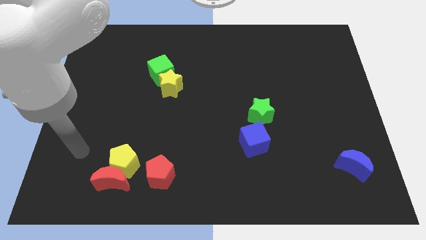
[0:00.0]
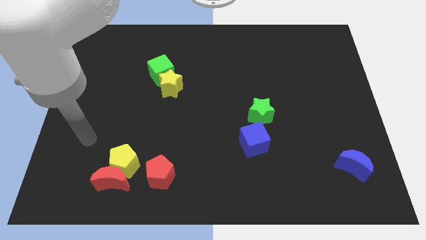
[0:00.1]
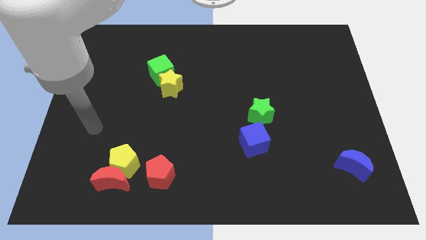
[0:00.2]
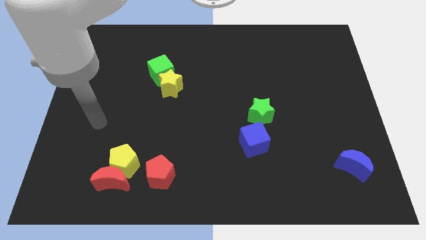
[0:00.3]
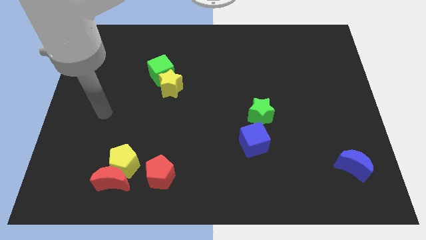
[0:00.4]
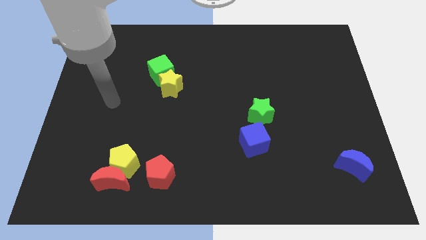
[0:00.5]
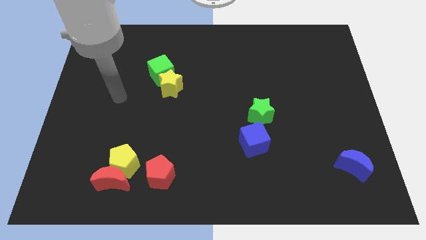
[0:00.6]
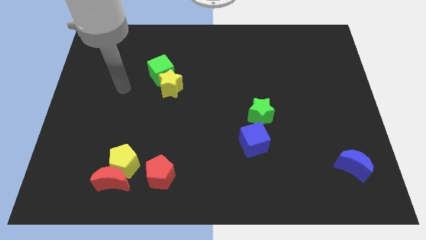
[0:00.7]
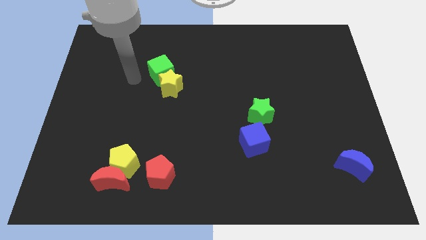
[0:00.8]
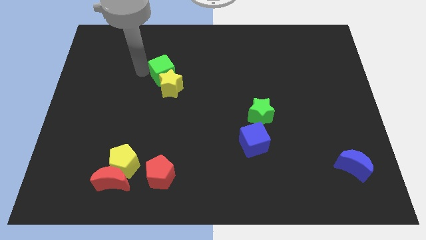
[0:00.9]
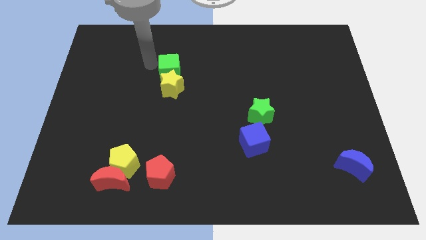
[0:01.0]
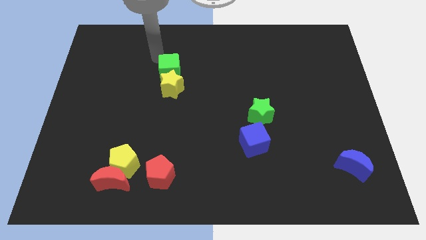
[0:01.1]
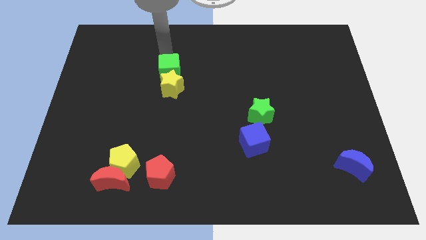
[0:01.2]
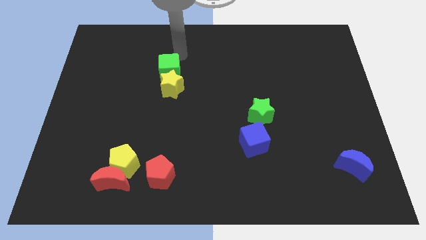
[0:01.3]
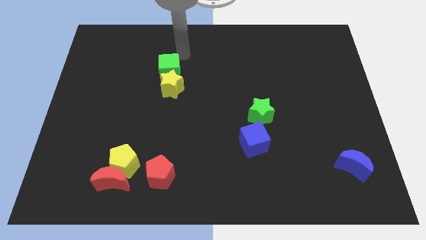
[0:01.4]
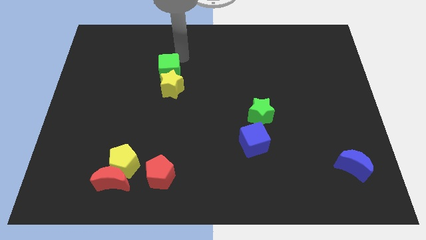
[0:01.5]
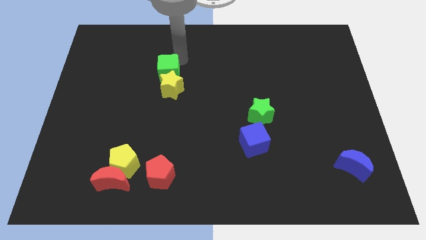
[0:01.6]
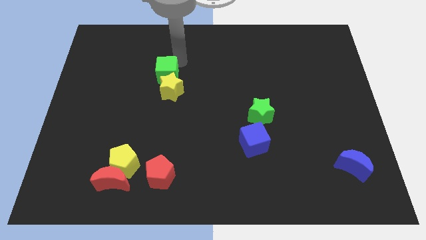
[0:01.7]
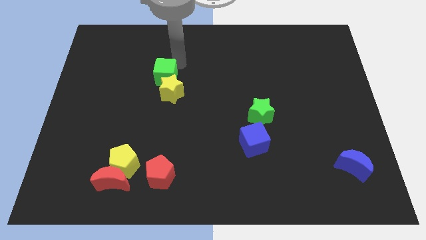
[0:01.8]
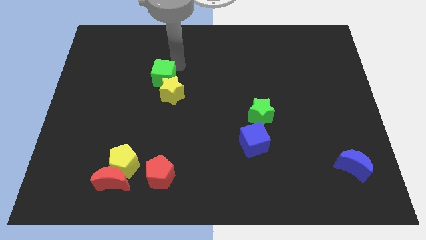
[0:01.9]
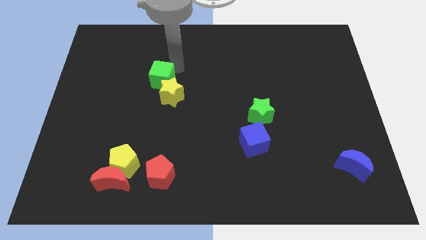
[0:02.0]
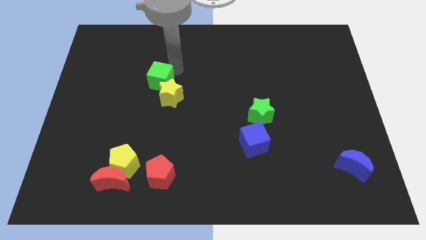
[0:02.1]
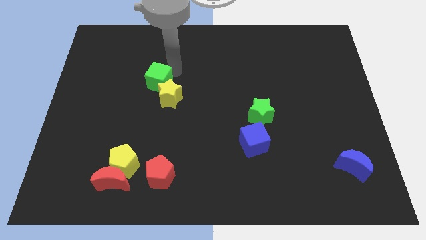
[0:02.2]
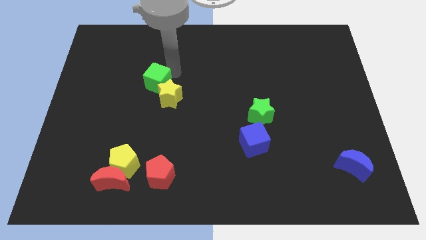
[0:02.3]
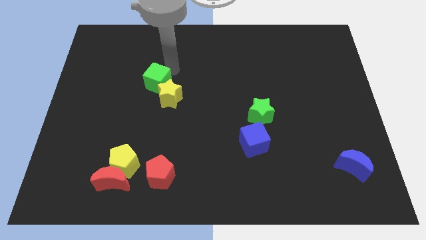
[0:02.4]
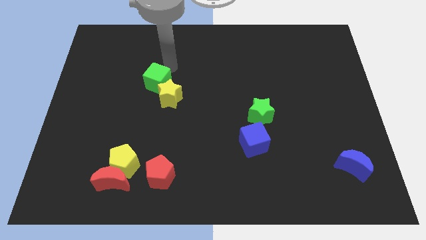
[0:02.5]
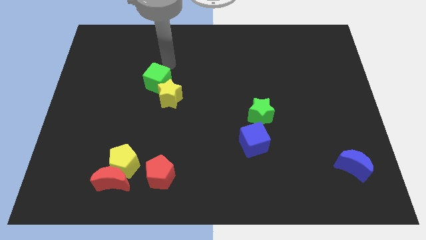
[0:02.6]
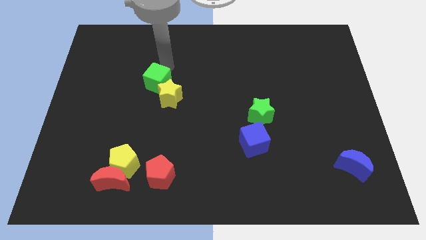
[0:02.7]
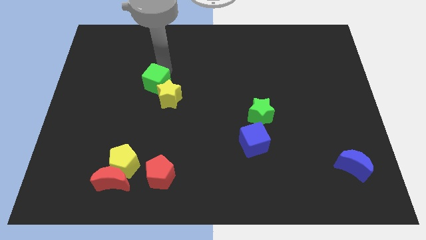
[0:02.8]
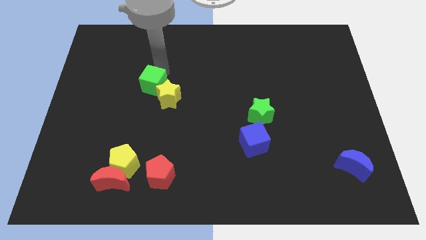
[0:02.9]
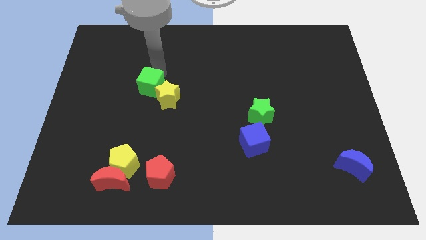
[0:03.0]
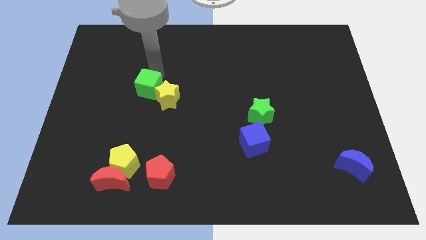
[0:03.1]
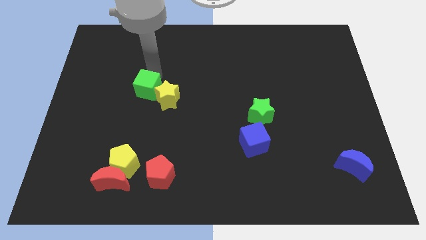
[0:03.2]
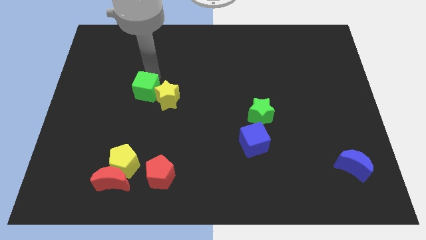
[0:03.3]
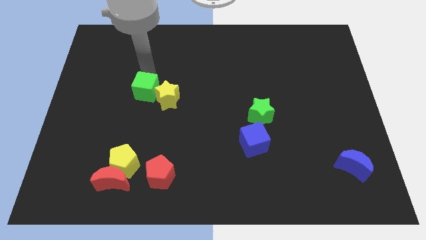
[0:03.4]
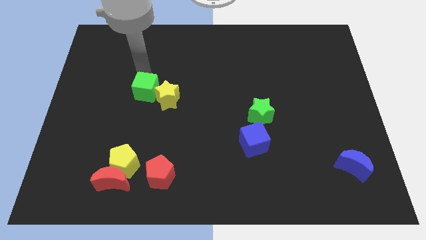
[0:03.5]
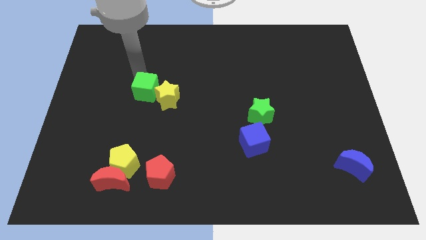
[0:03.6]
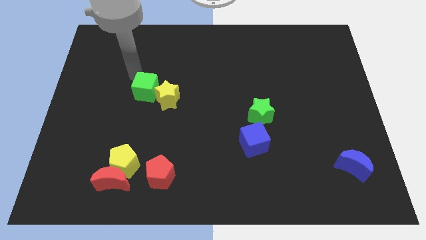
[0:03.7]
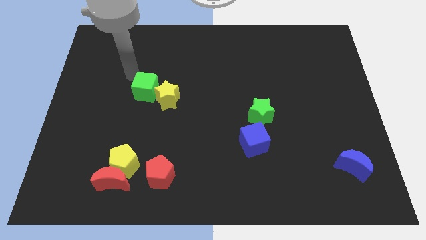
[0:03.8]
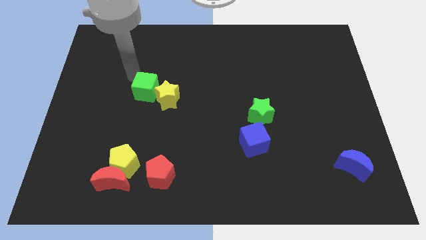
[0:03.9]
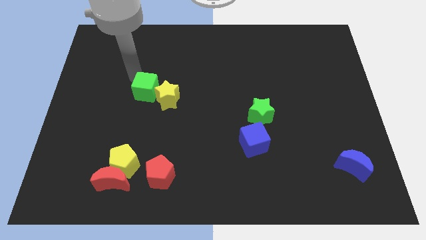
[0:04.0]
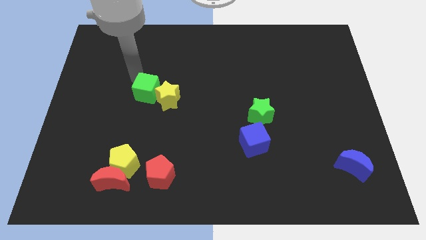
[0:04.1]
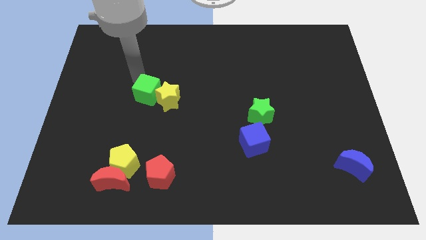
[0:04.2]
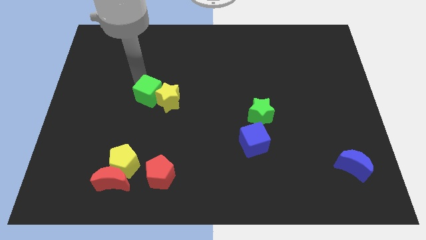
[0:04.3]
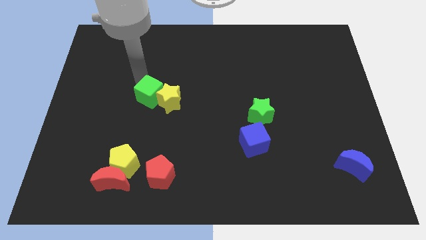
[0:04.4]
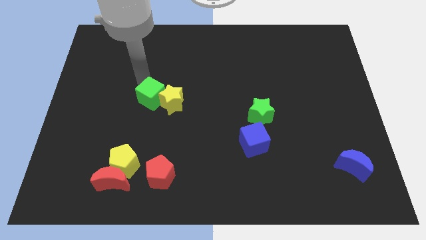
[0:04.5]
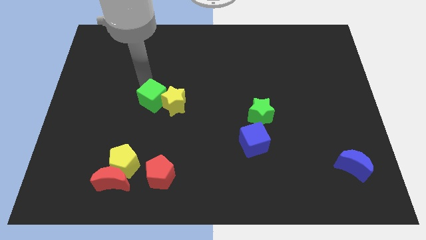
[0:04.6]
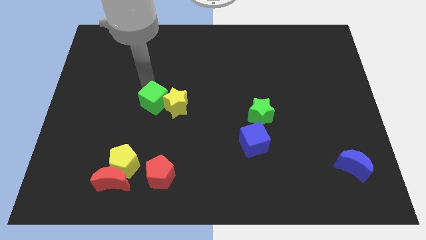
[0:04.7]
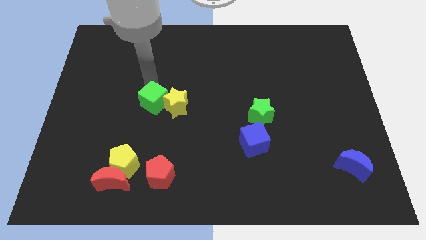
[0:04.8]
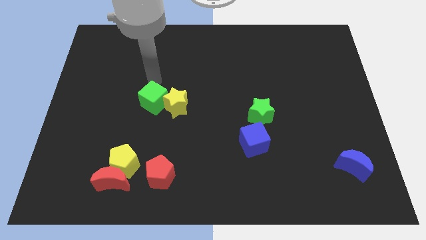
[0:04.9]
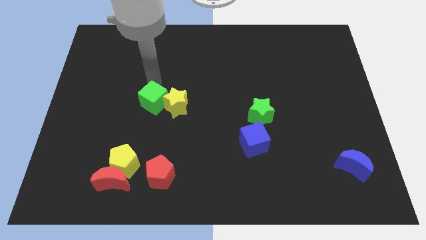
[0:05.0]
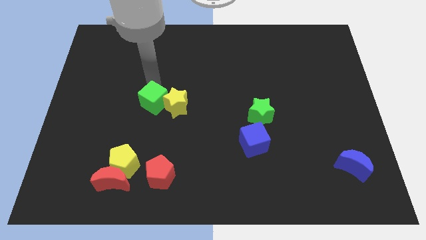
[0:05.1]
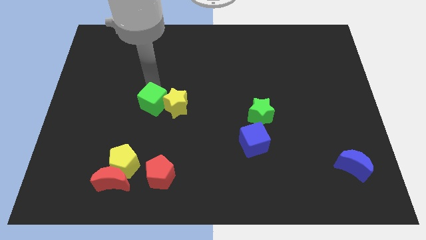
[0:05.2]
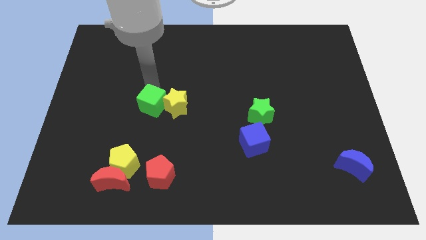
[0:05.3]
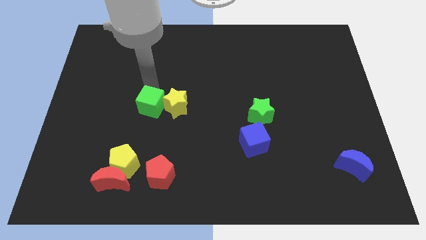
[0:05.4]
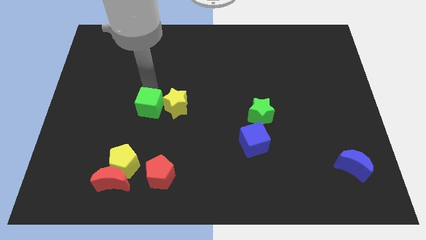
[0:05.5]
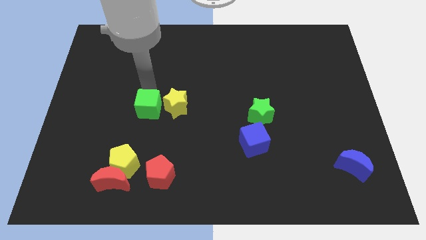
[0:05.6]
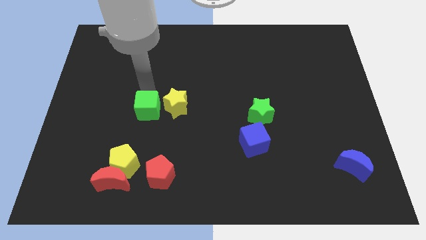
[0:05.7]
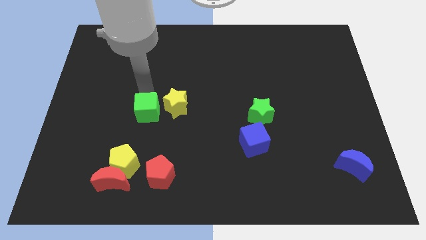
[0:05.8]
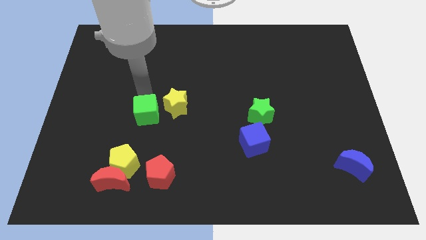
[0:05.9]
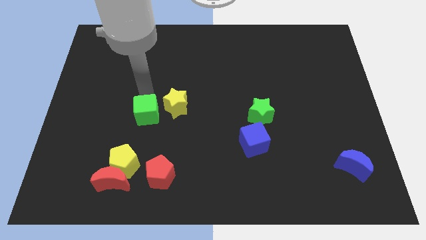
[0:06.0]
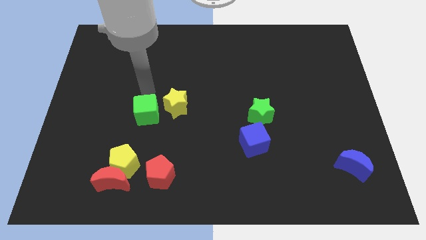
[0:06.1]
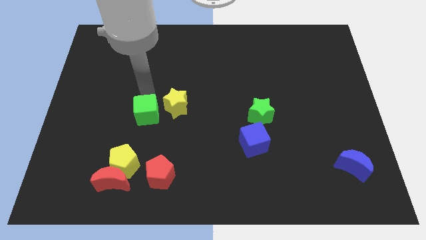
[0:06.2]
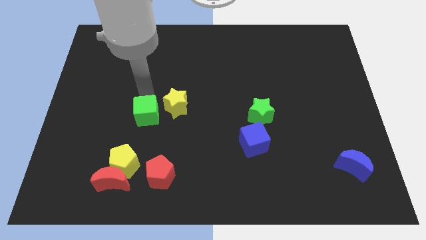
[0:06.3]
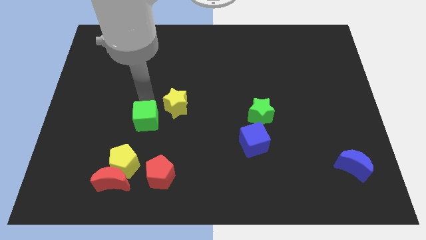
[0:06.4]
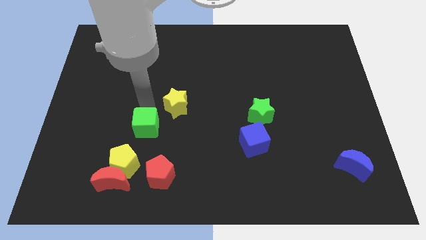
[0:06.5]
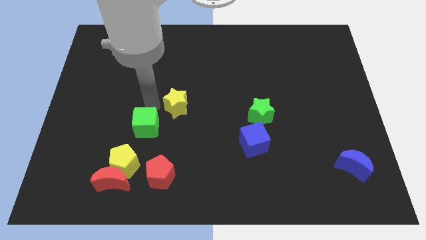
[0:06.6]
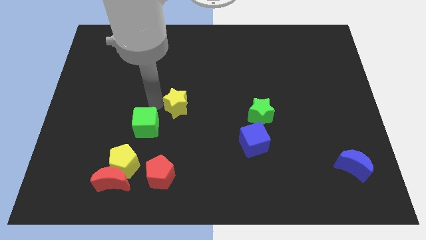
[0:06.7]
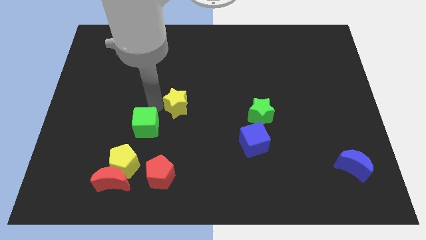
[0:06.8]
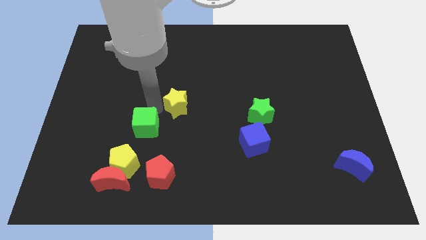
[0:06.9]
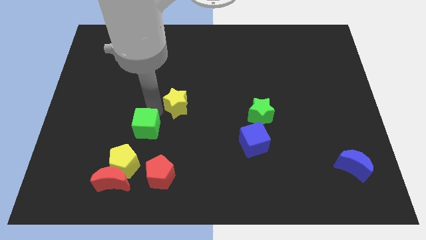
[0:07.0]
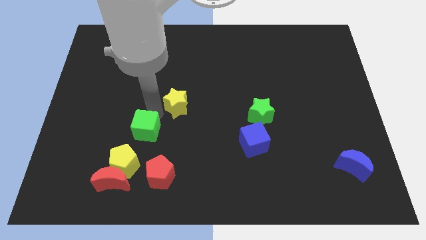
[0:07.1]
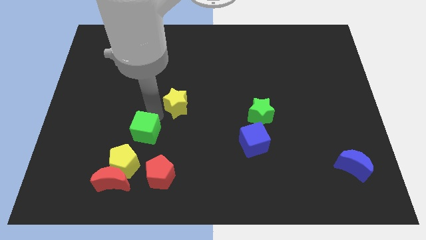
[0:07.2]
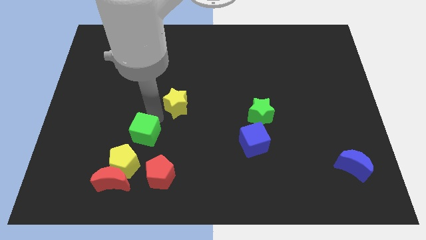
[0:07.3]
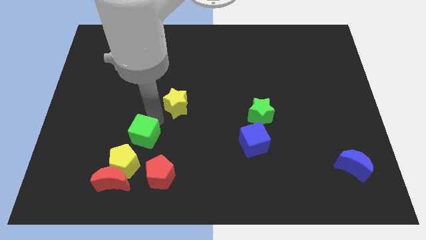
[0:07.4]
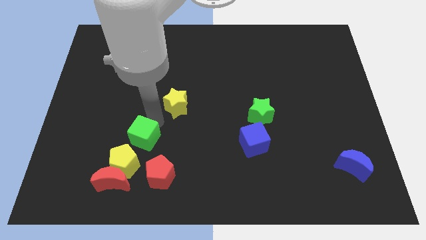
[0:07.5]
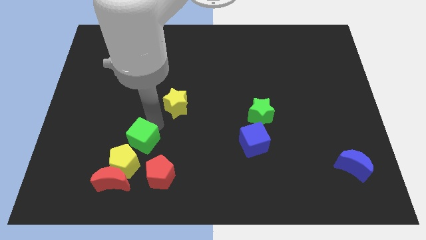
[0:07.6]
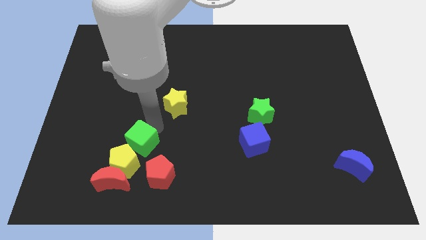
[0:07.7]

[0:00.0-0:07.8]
put the green cube close to the yellow pentagon

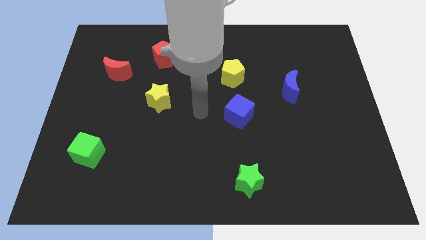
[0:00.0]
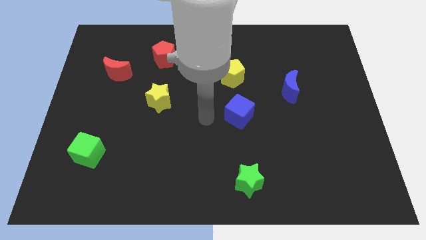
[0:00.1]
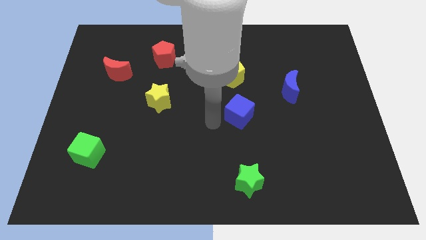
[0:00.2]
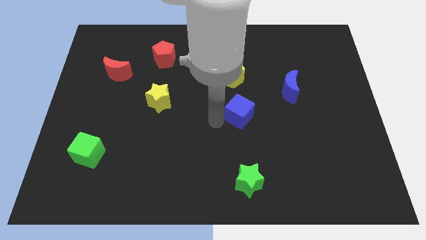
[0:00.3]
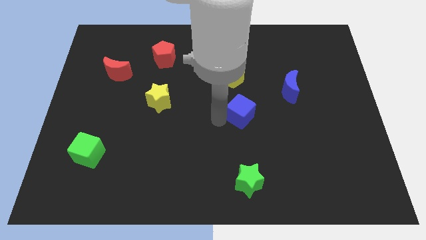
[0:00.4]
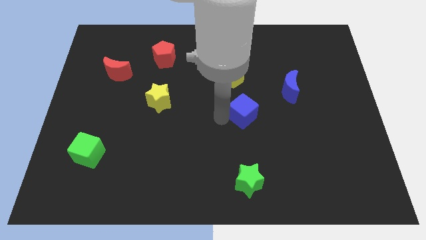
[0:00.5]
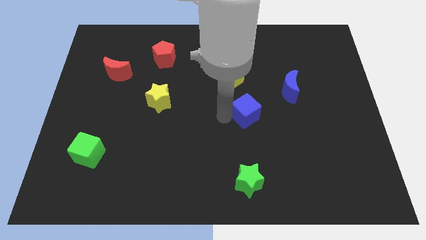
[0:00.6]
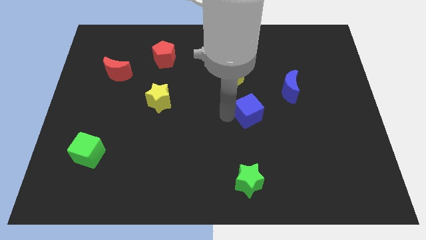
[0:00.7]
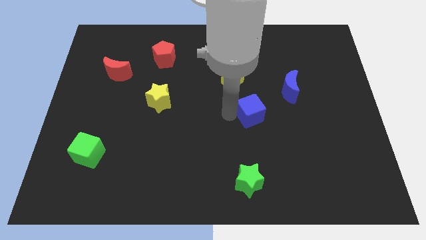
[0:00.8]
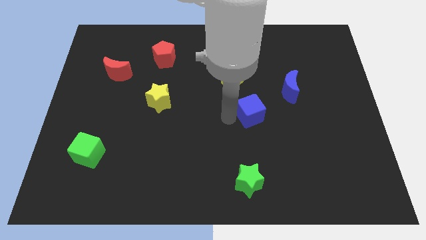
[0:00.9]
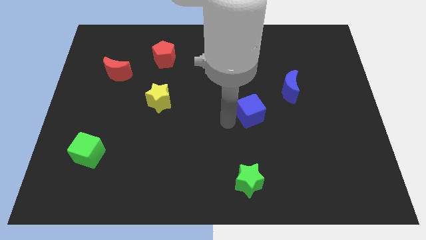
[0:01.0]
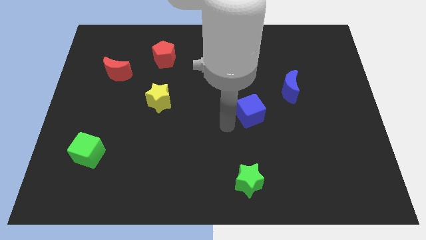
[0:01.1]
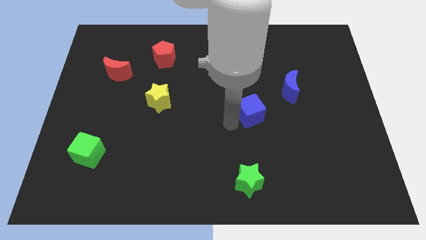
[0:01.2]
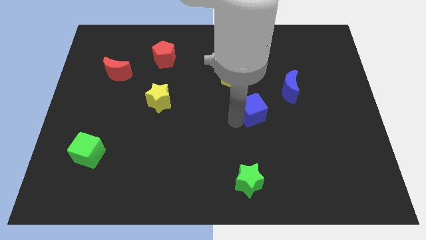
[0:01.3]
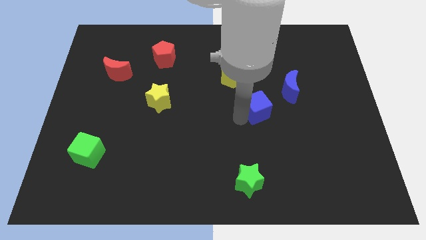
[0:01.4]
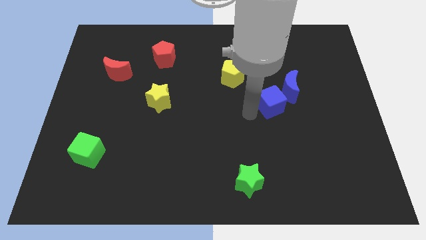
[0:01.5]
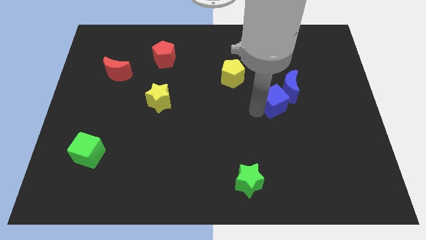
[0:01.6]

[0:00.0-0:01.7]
move the blue cube to the blue moon
